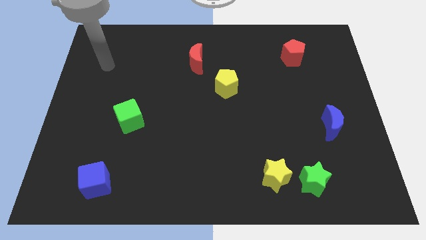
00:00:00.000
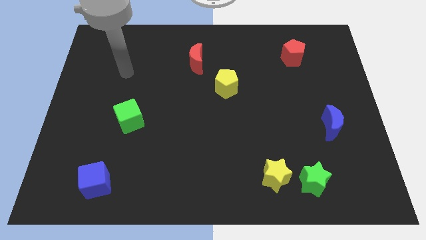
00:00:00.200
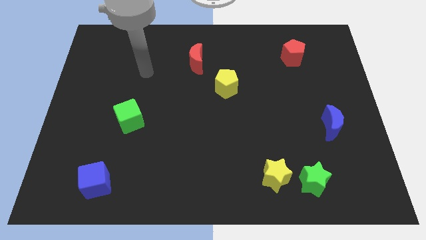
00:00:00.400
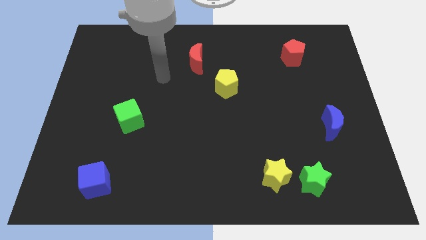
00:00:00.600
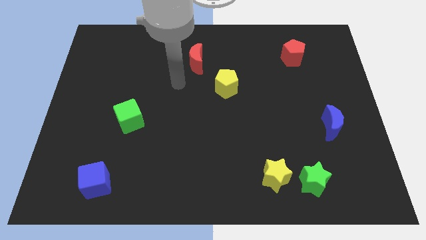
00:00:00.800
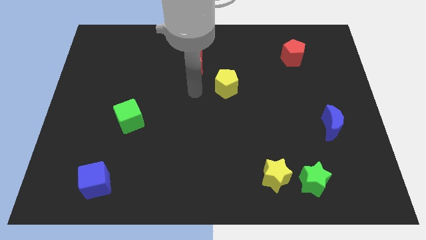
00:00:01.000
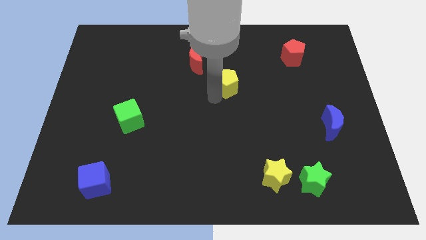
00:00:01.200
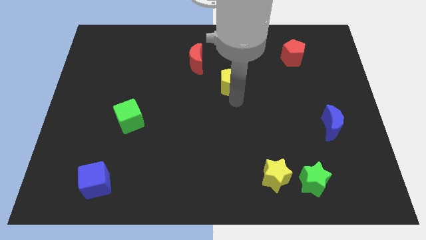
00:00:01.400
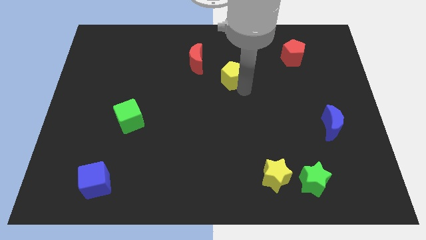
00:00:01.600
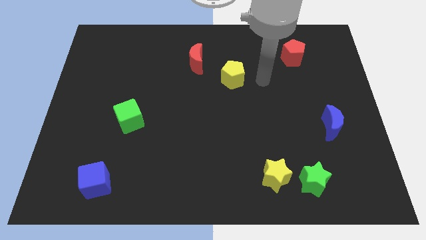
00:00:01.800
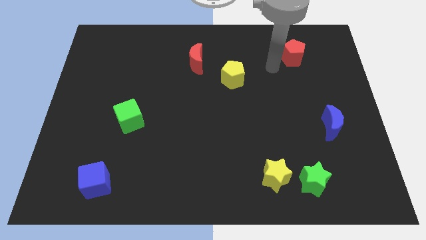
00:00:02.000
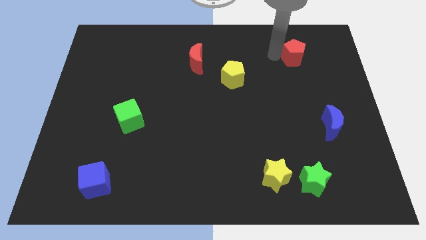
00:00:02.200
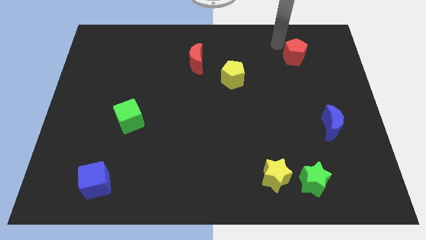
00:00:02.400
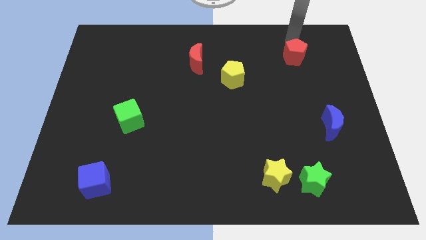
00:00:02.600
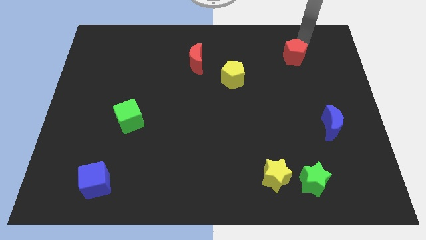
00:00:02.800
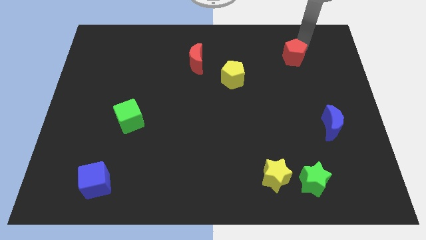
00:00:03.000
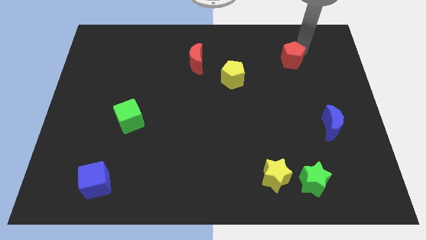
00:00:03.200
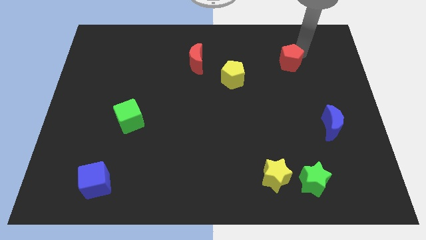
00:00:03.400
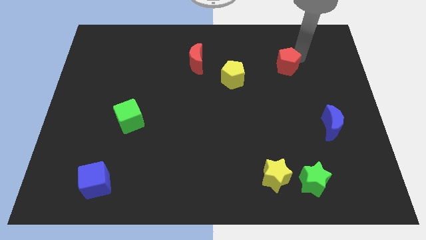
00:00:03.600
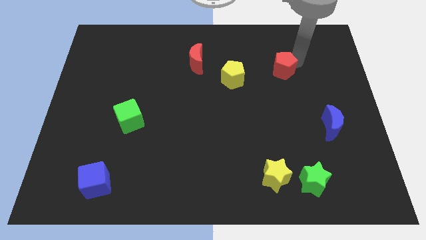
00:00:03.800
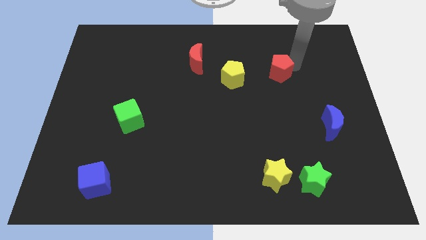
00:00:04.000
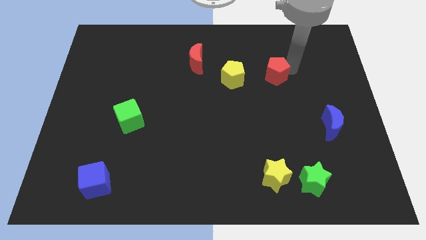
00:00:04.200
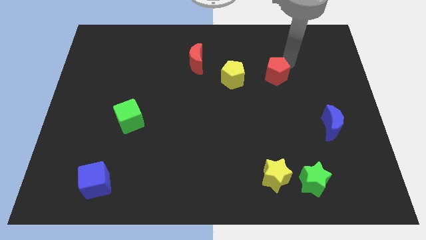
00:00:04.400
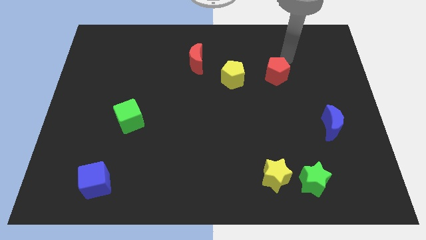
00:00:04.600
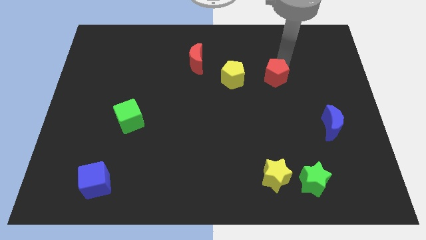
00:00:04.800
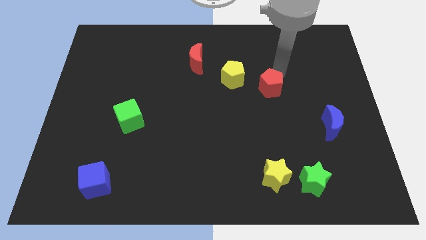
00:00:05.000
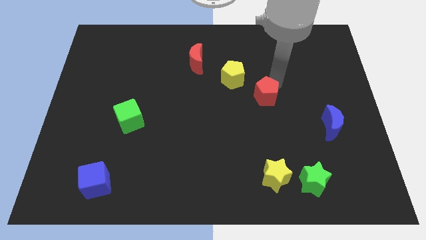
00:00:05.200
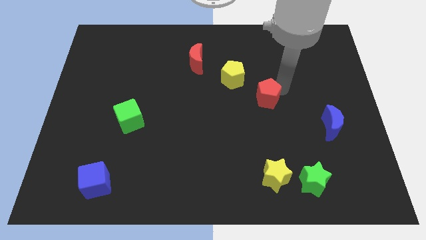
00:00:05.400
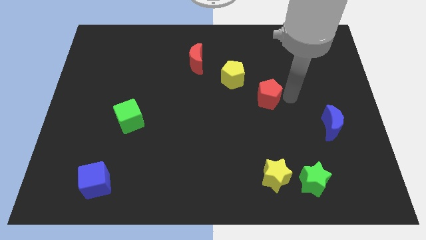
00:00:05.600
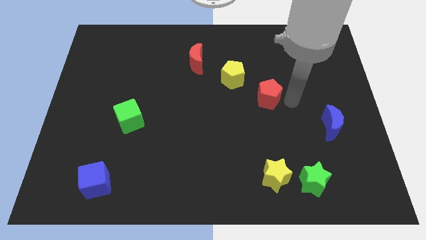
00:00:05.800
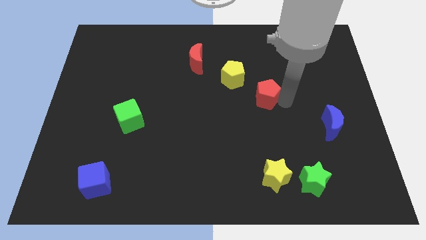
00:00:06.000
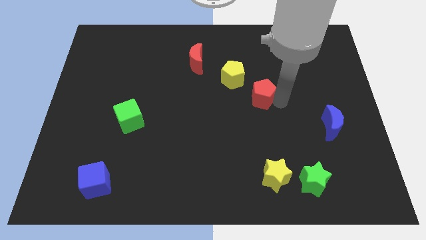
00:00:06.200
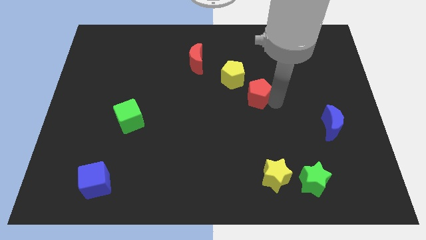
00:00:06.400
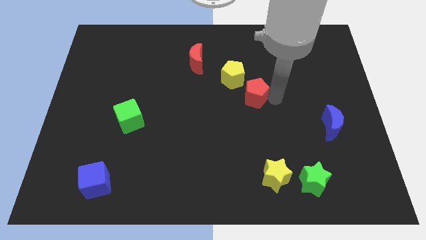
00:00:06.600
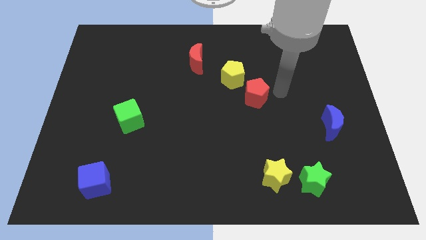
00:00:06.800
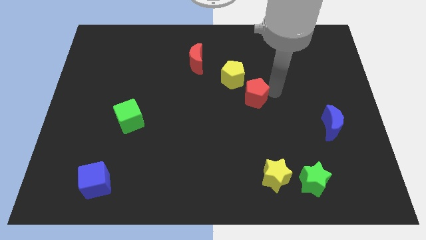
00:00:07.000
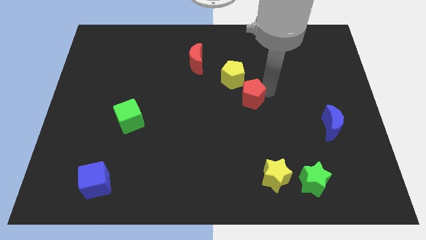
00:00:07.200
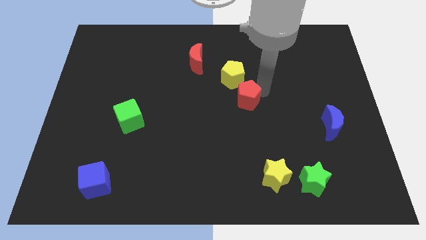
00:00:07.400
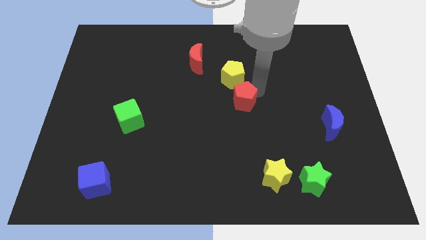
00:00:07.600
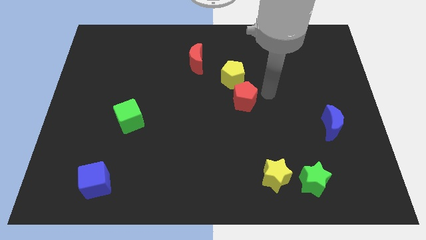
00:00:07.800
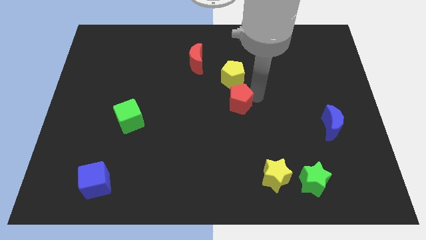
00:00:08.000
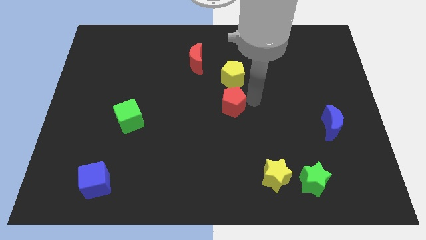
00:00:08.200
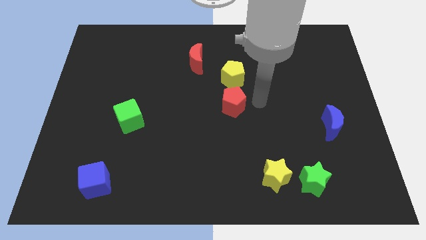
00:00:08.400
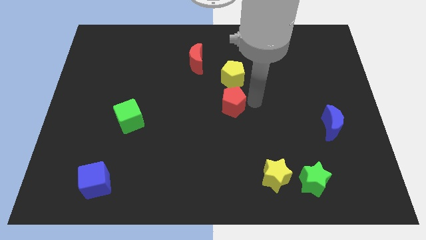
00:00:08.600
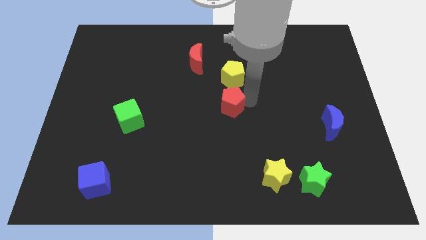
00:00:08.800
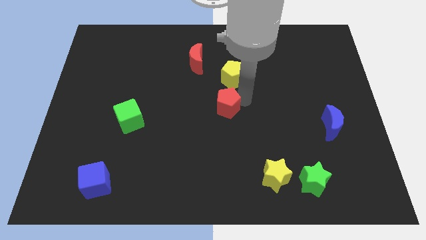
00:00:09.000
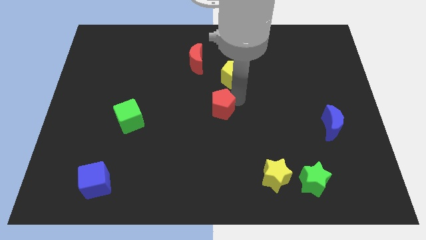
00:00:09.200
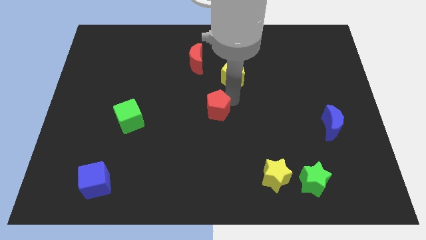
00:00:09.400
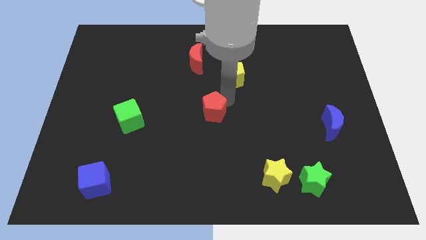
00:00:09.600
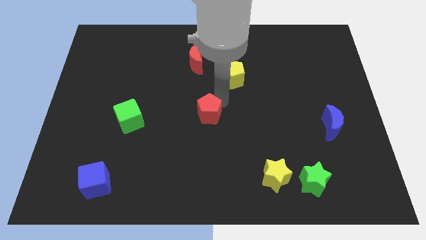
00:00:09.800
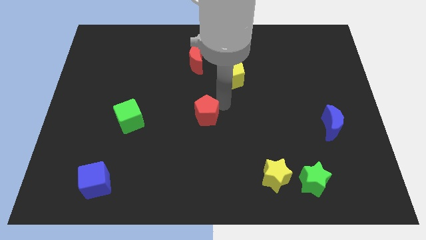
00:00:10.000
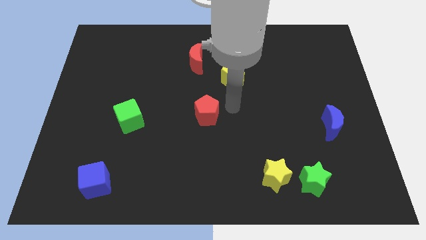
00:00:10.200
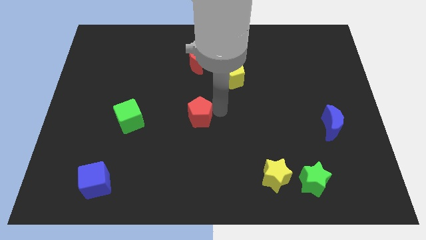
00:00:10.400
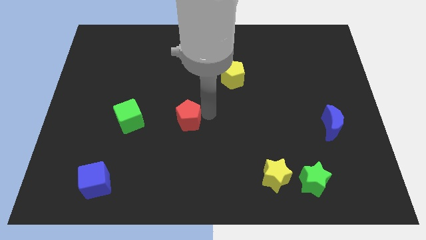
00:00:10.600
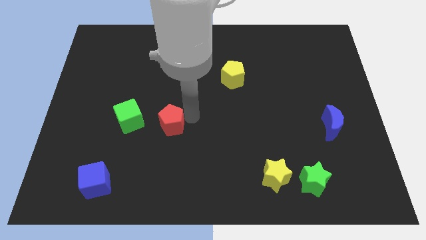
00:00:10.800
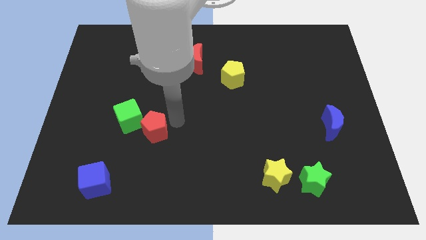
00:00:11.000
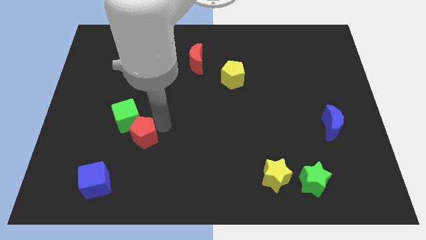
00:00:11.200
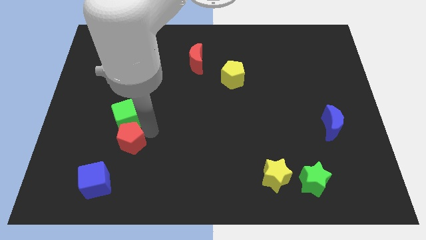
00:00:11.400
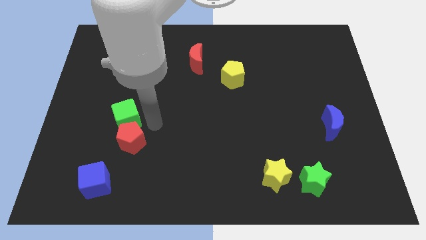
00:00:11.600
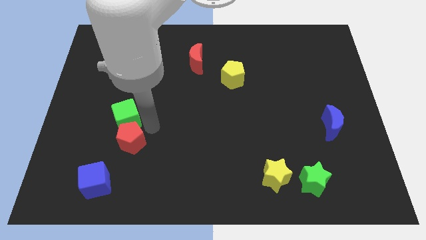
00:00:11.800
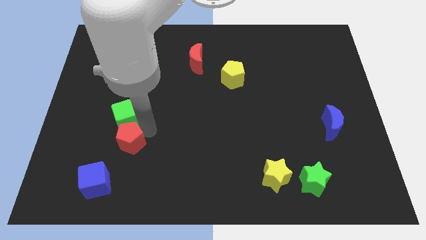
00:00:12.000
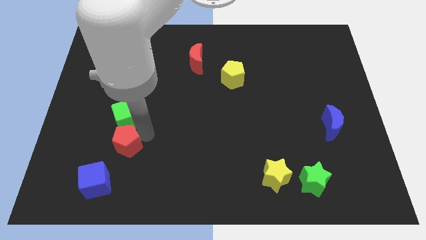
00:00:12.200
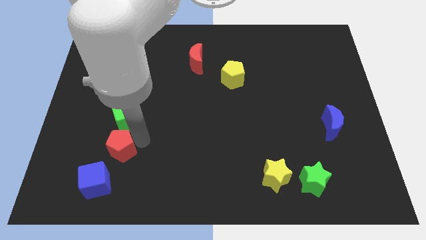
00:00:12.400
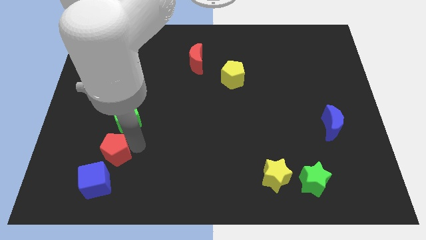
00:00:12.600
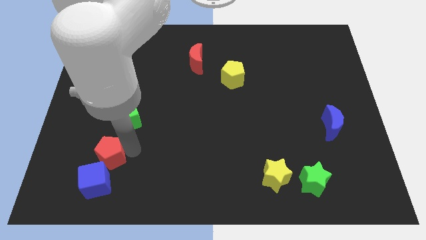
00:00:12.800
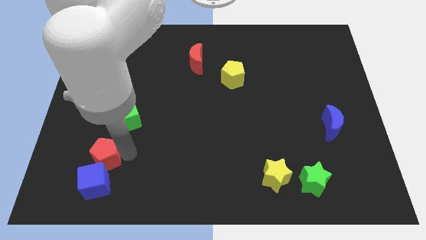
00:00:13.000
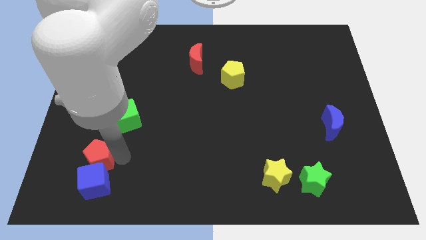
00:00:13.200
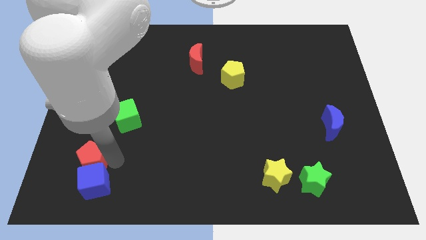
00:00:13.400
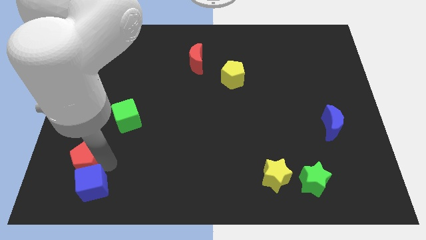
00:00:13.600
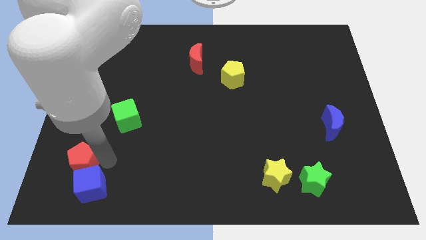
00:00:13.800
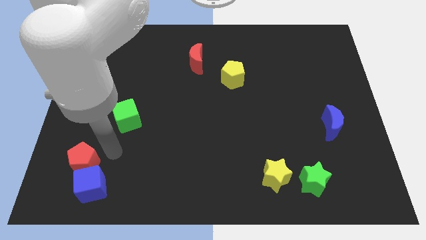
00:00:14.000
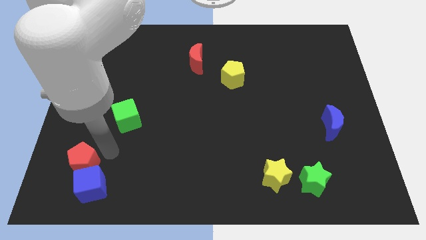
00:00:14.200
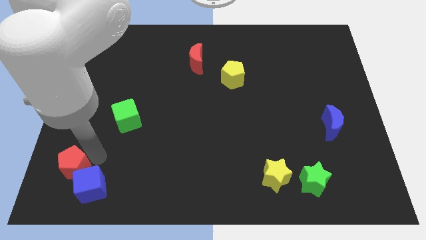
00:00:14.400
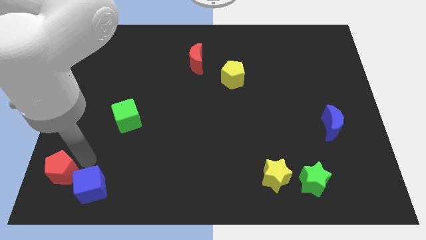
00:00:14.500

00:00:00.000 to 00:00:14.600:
slide the red pentagon to the bottom left of the board
